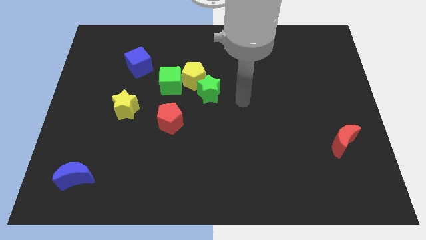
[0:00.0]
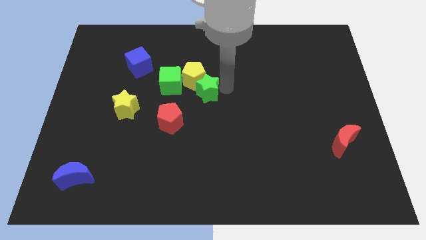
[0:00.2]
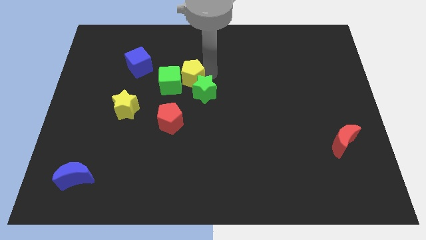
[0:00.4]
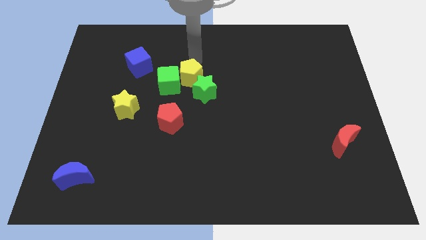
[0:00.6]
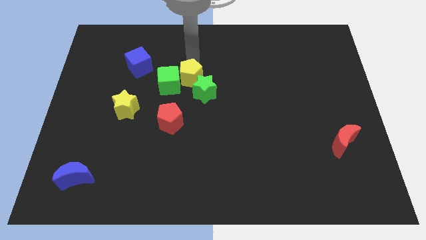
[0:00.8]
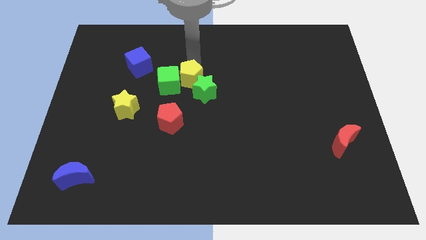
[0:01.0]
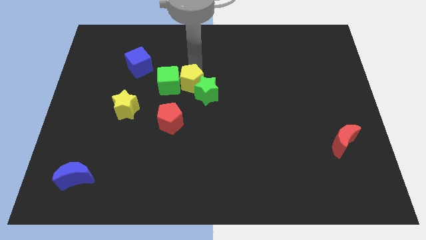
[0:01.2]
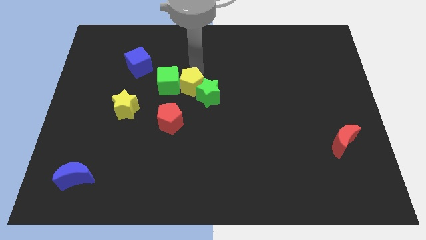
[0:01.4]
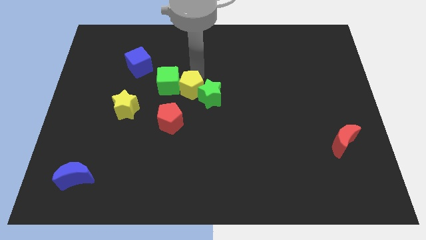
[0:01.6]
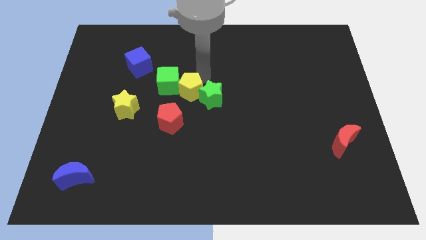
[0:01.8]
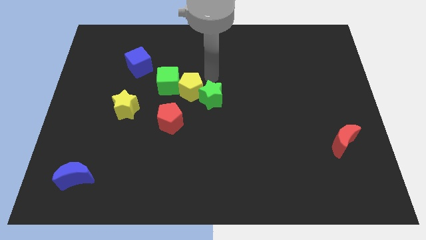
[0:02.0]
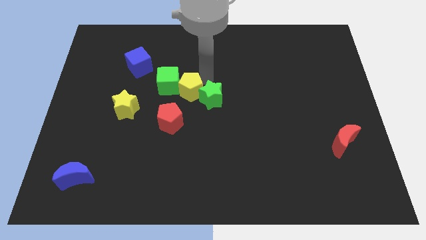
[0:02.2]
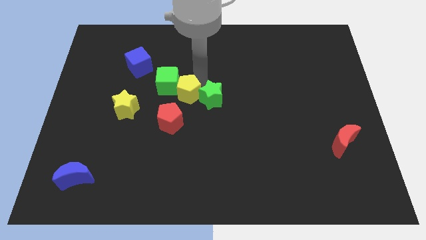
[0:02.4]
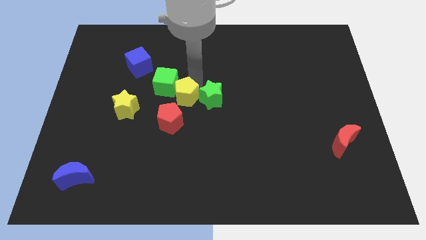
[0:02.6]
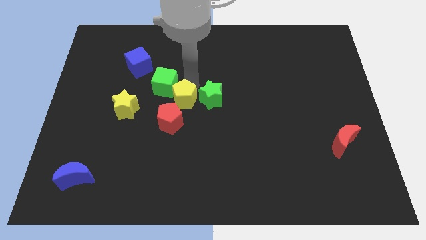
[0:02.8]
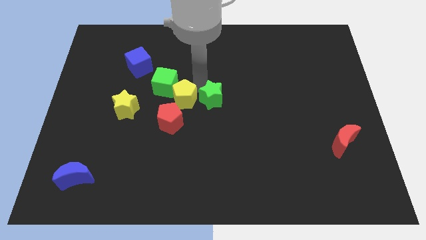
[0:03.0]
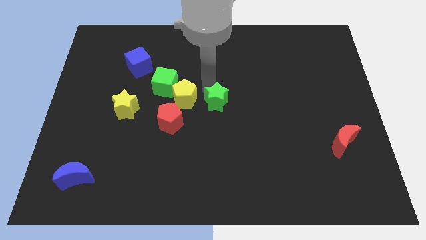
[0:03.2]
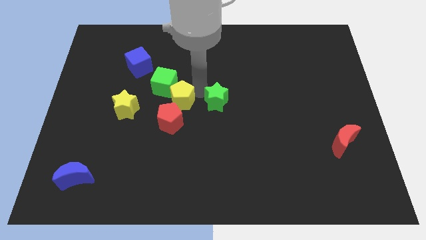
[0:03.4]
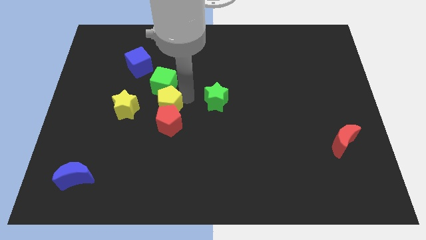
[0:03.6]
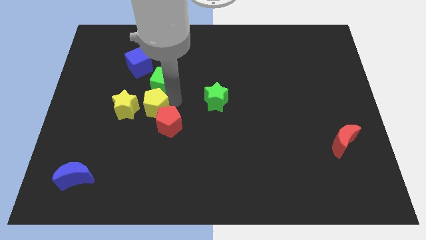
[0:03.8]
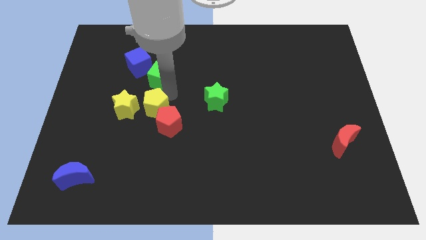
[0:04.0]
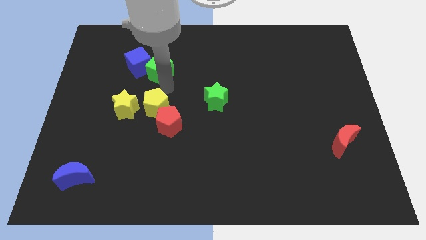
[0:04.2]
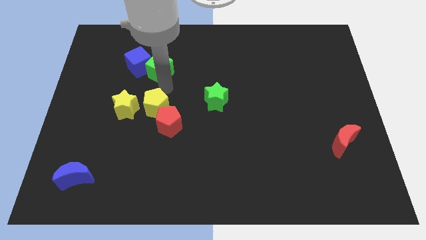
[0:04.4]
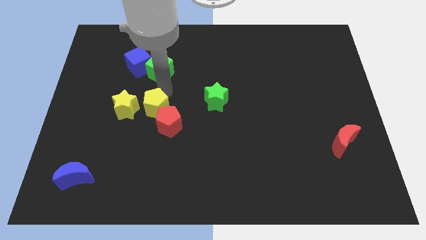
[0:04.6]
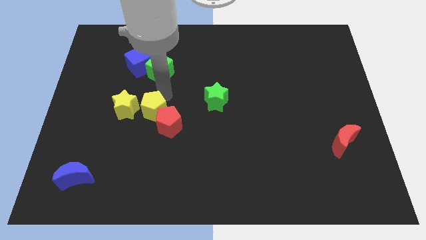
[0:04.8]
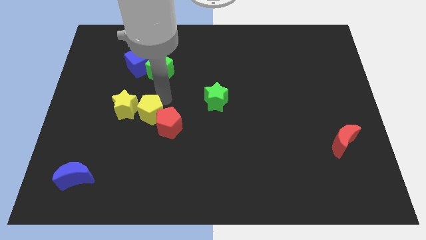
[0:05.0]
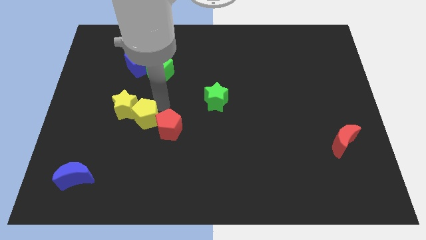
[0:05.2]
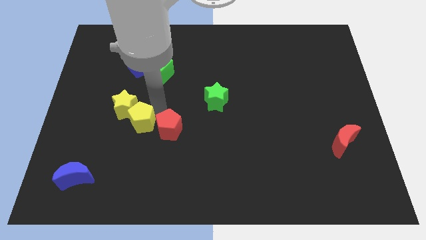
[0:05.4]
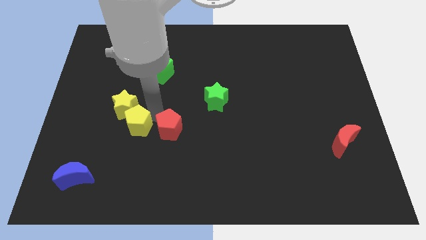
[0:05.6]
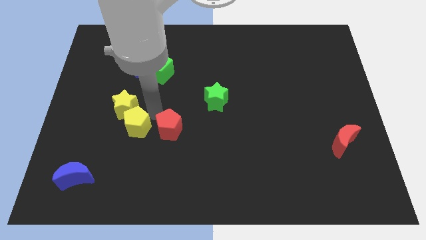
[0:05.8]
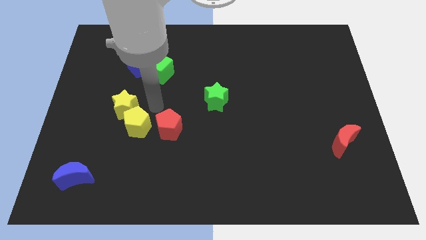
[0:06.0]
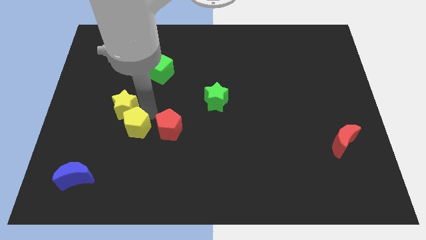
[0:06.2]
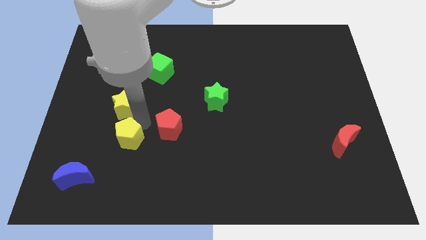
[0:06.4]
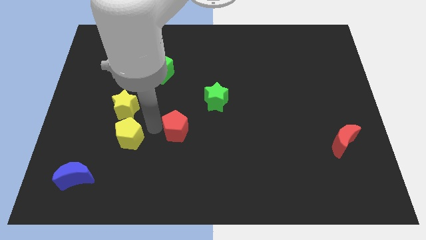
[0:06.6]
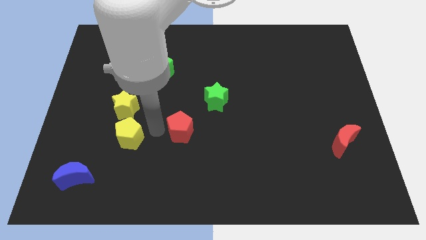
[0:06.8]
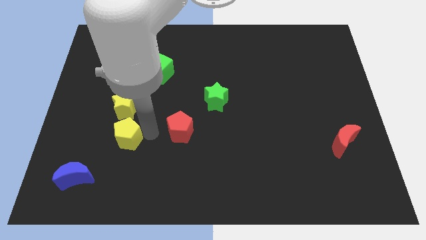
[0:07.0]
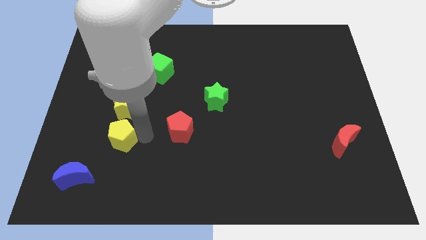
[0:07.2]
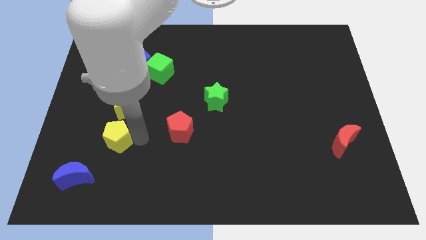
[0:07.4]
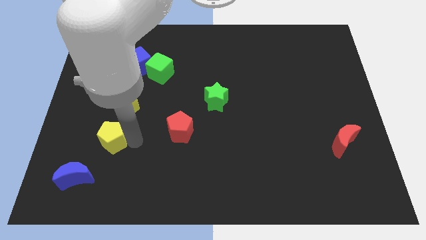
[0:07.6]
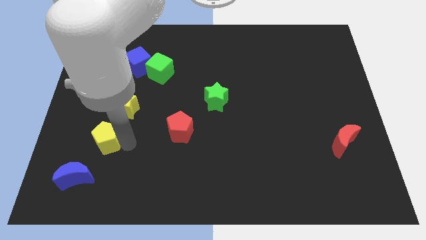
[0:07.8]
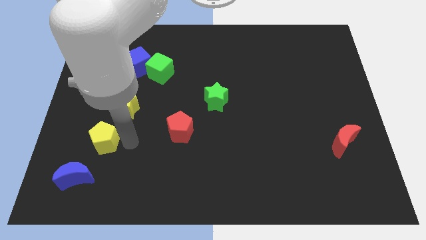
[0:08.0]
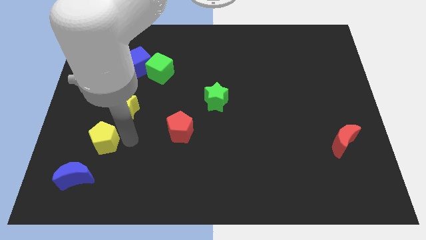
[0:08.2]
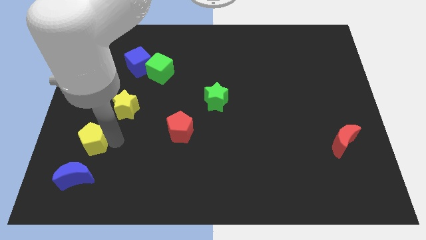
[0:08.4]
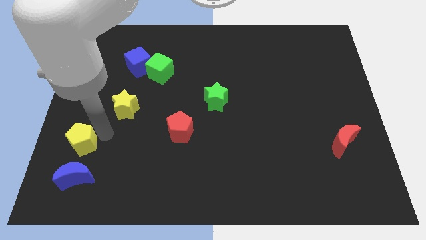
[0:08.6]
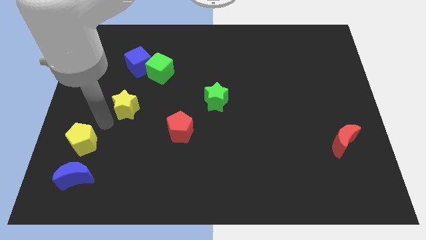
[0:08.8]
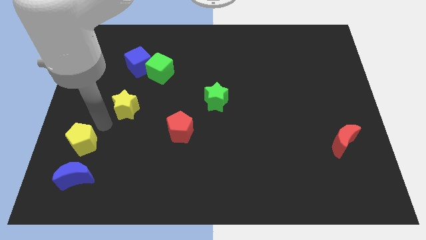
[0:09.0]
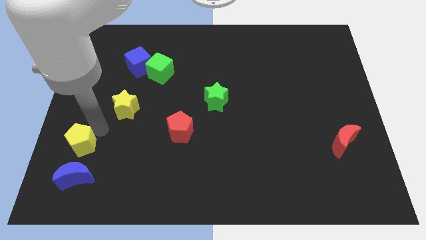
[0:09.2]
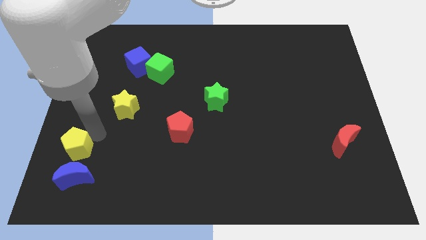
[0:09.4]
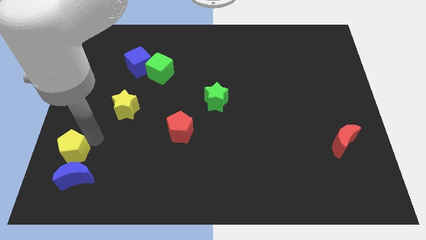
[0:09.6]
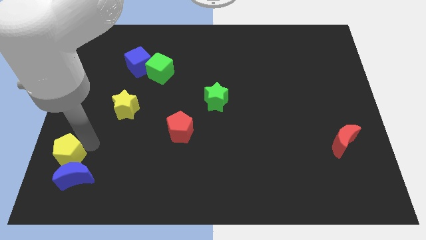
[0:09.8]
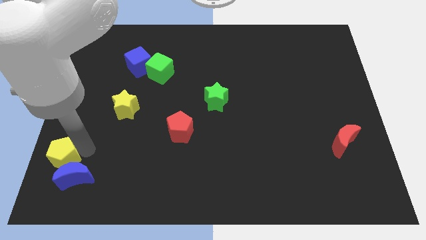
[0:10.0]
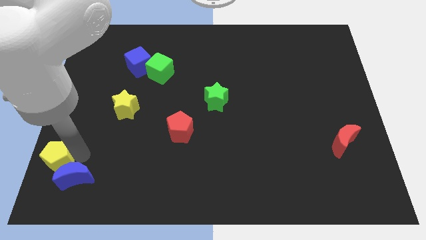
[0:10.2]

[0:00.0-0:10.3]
put the yellow pentagon to the bottom left of the board
